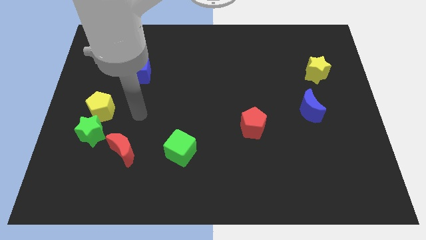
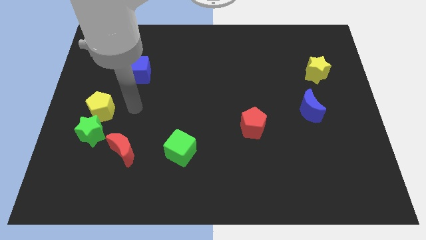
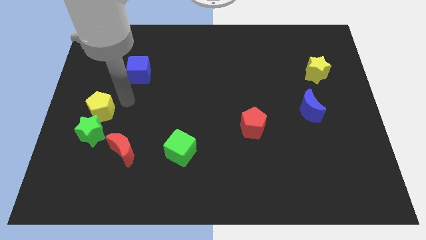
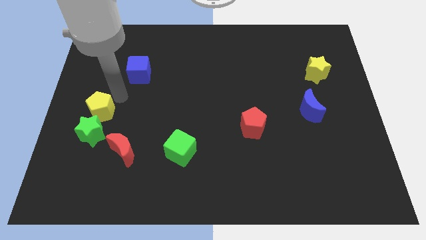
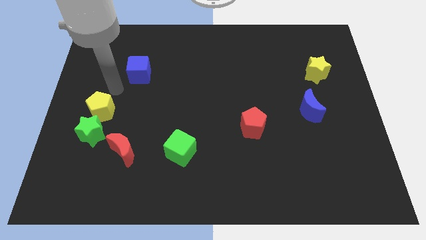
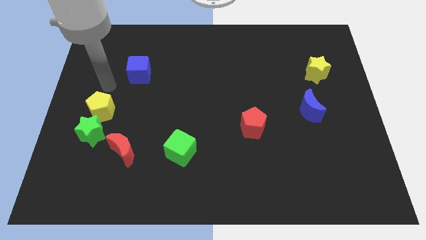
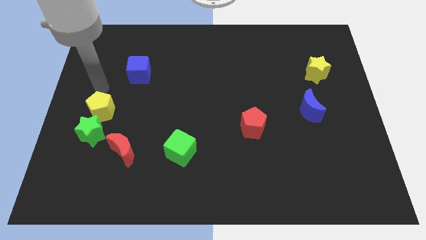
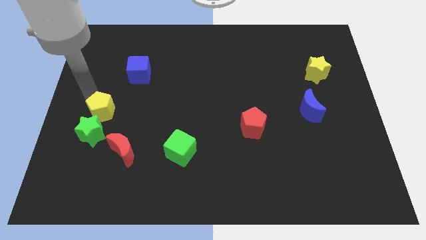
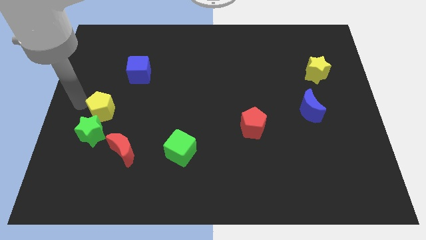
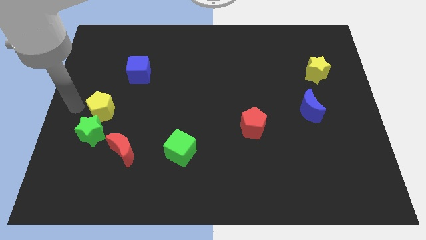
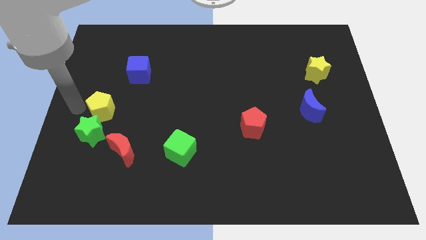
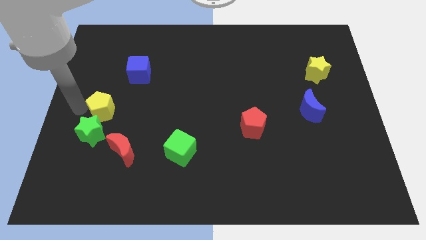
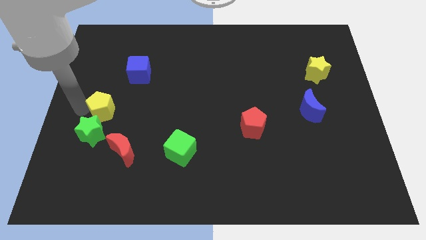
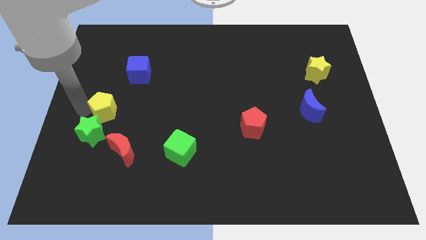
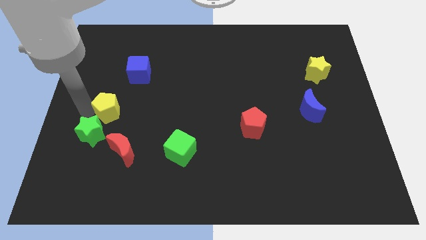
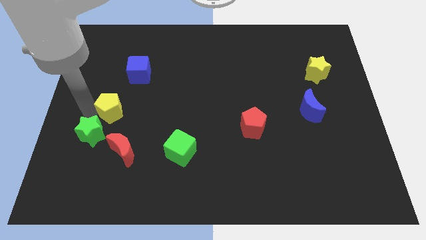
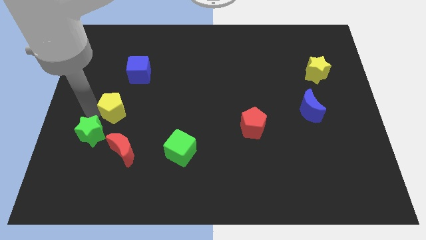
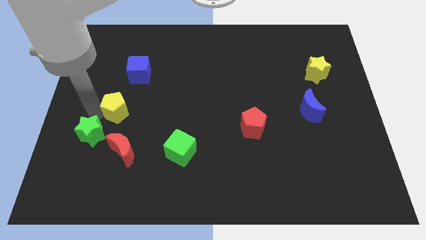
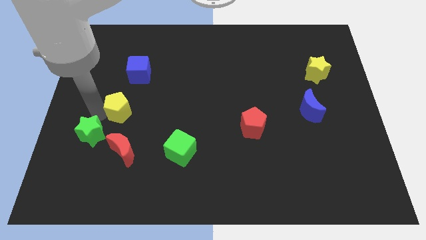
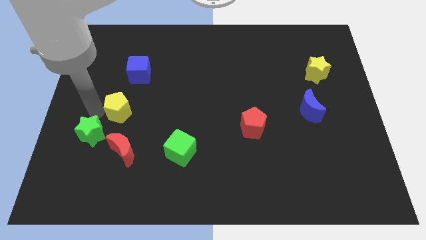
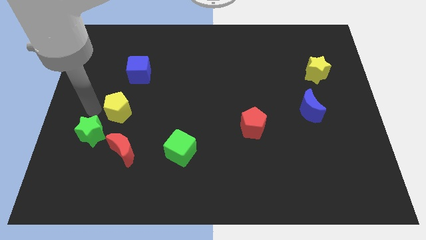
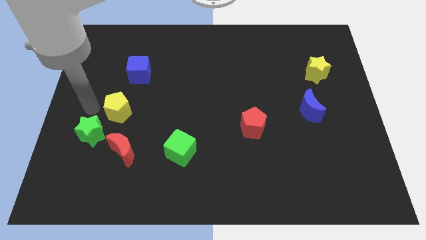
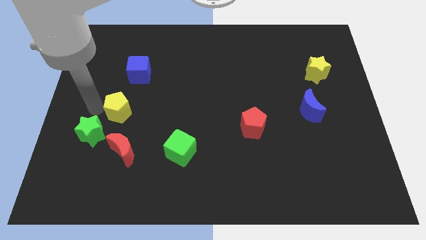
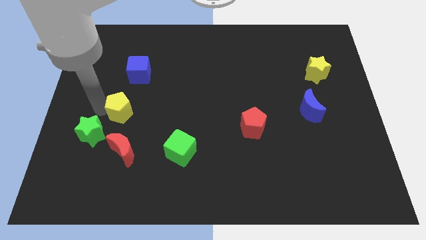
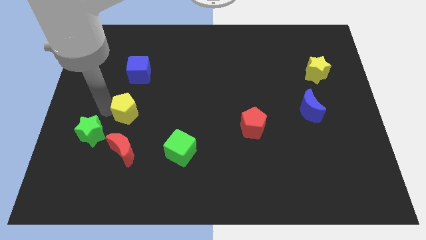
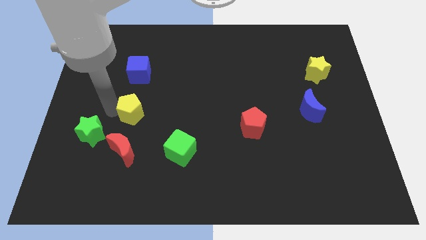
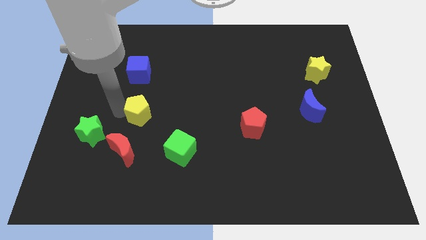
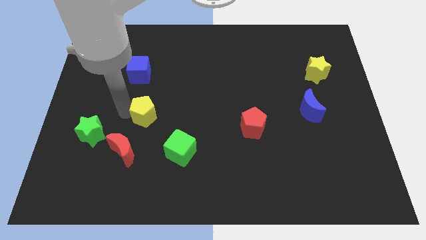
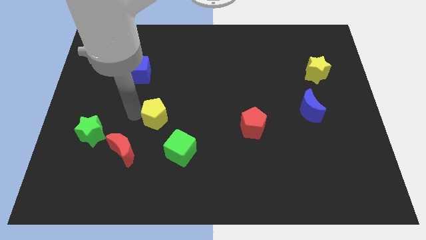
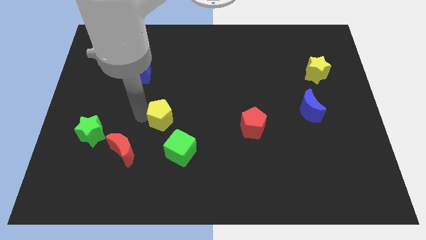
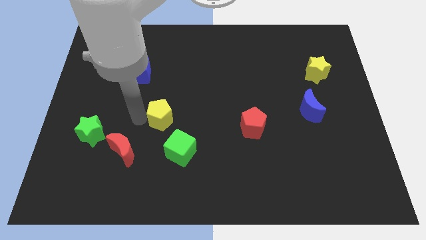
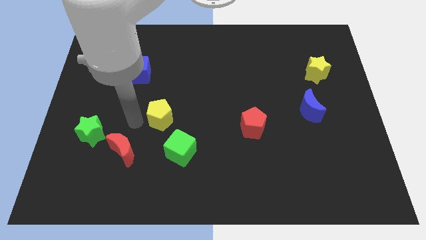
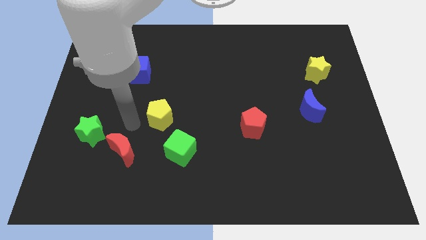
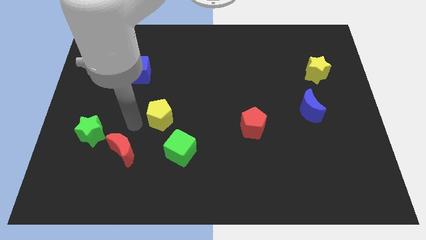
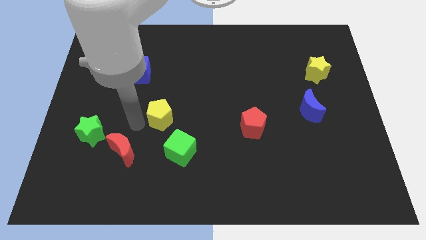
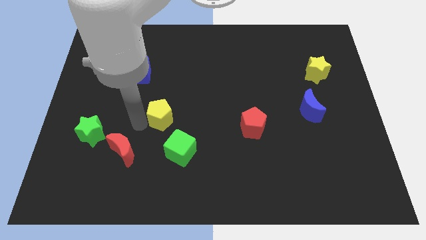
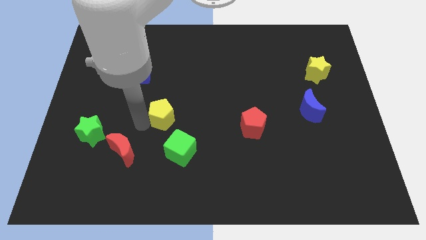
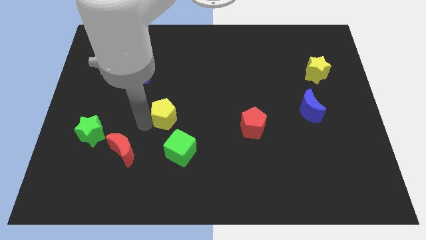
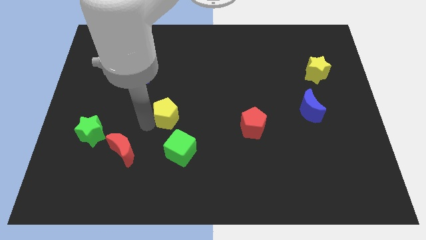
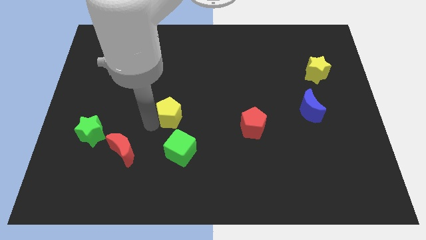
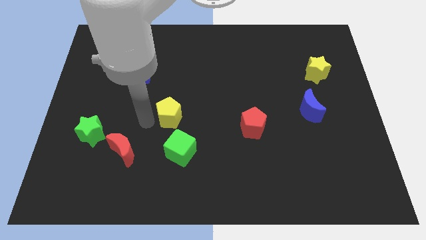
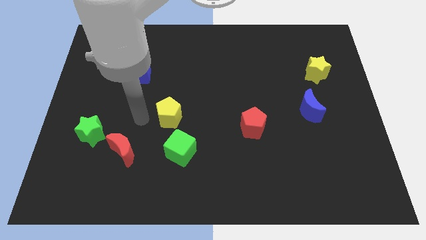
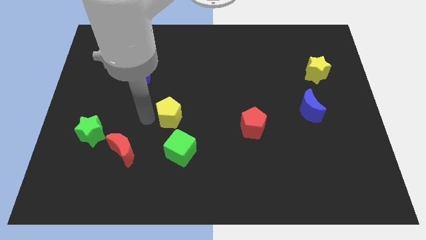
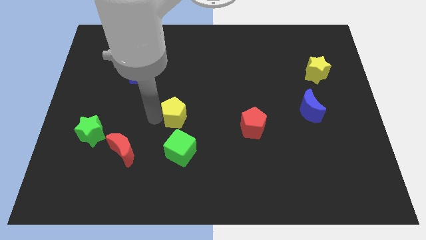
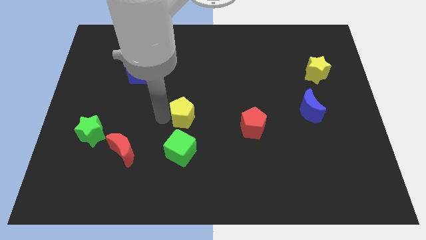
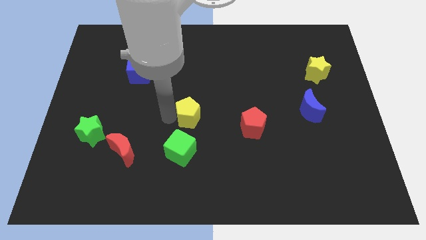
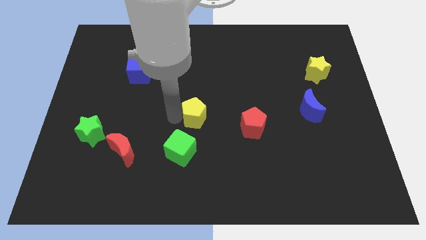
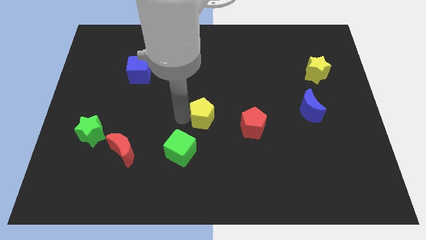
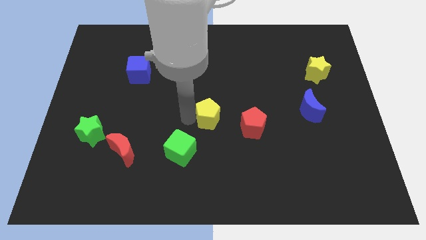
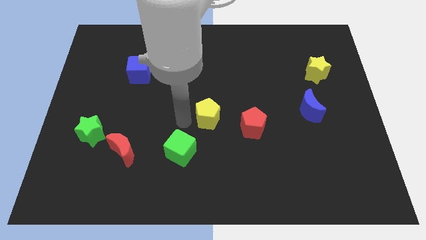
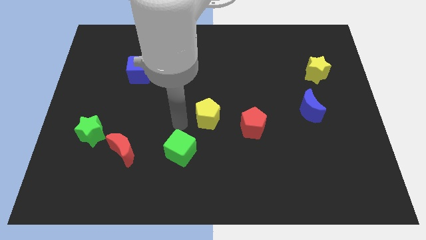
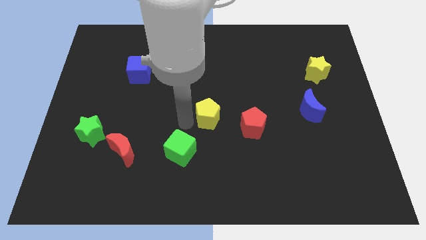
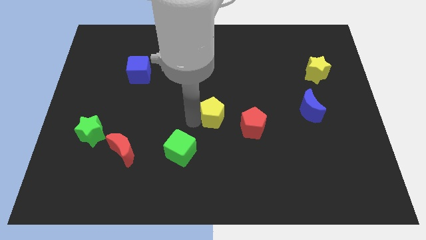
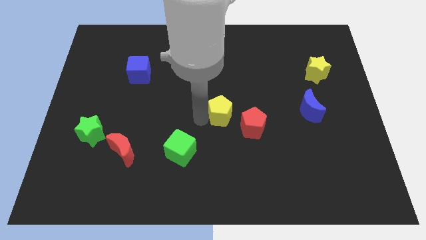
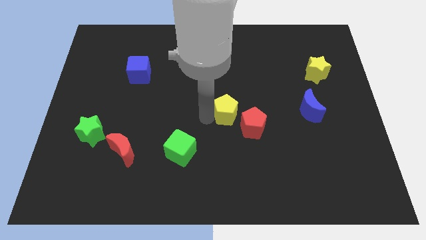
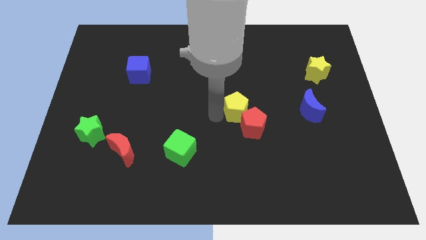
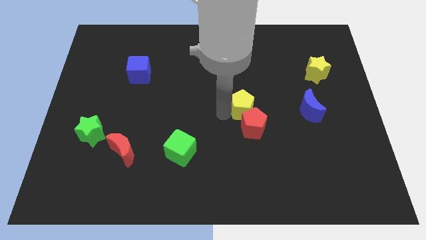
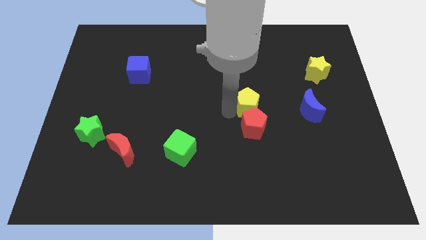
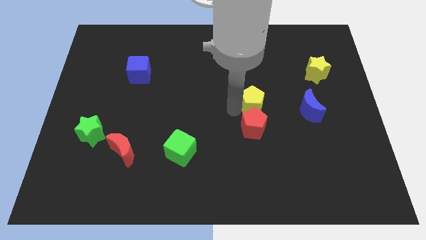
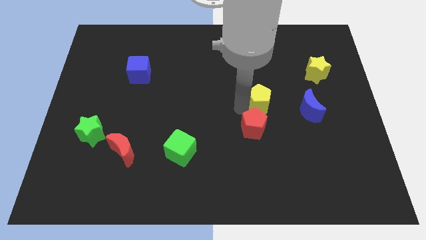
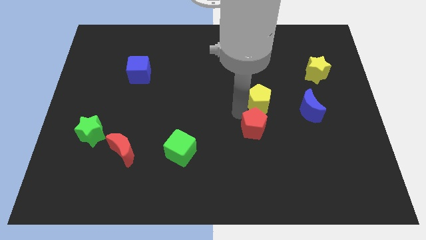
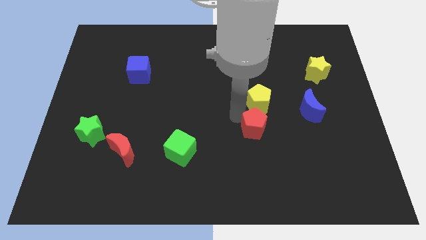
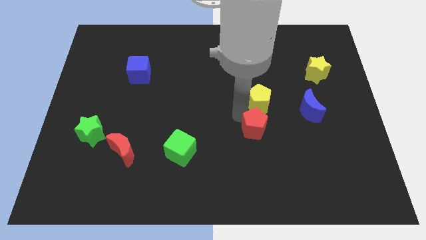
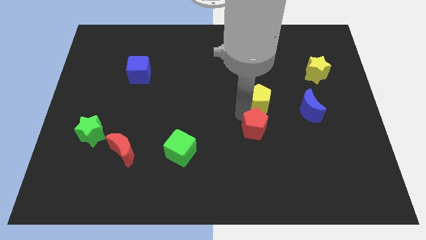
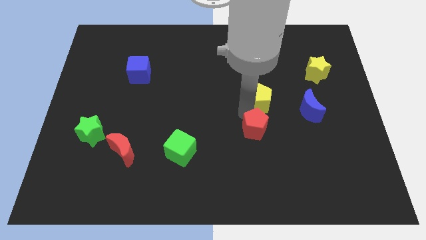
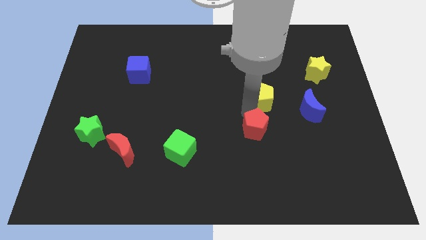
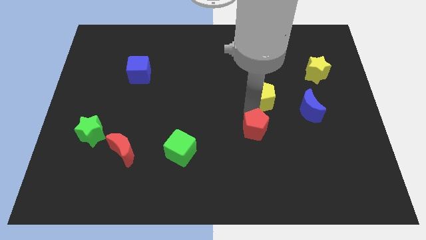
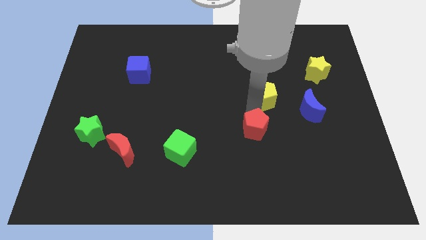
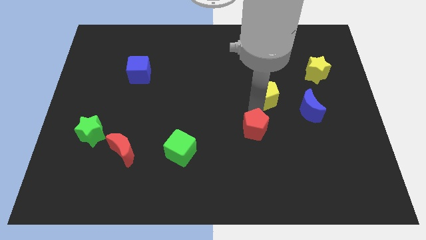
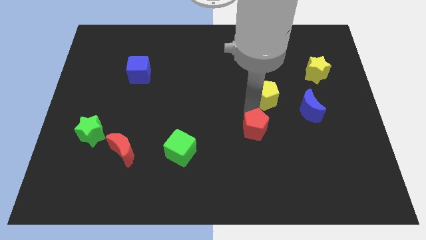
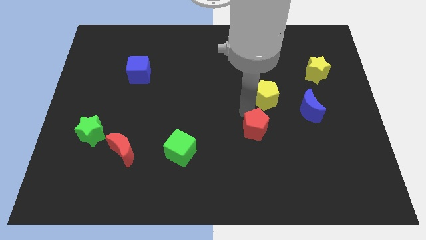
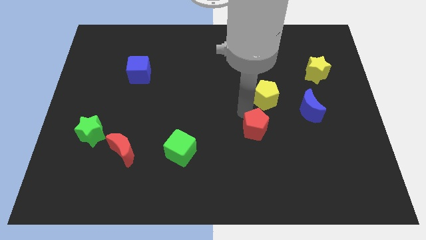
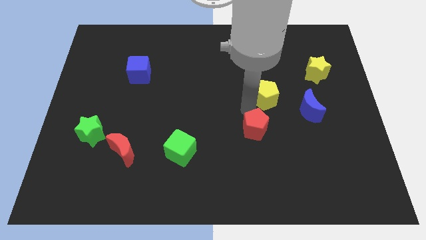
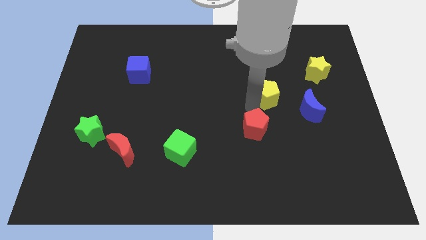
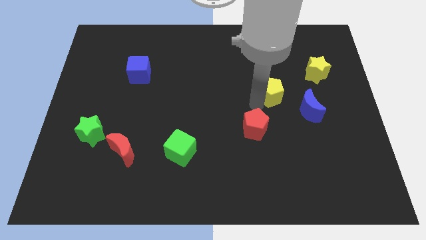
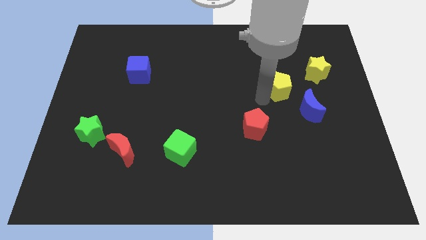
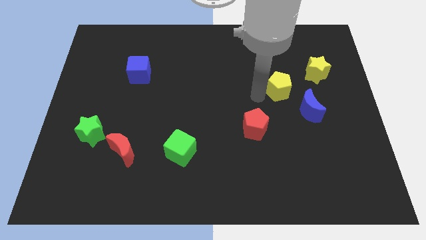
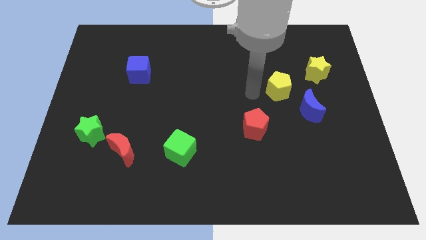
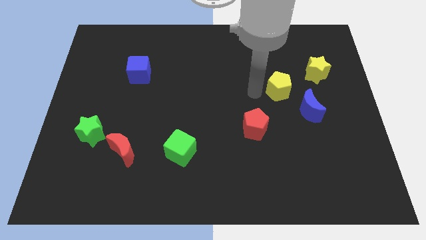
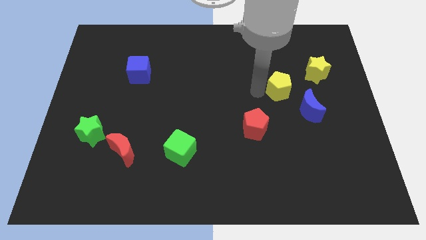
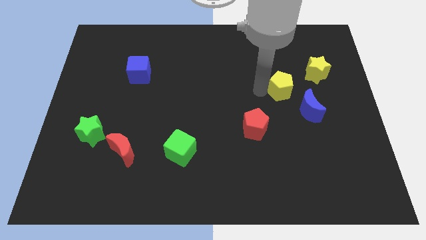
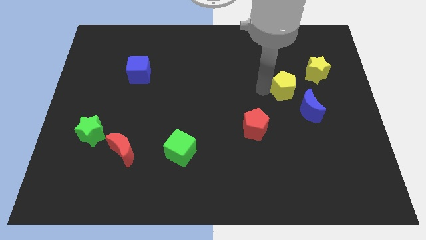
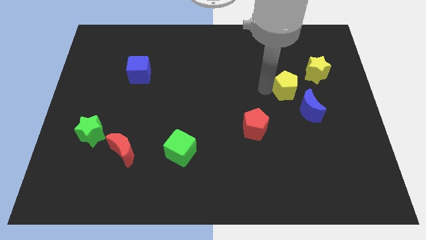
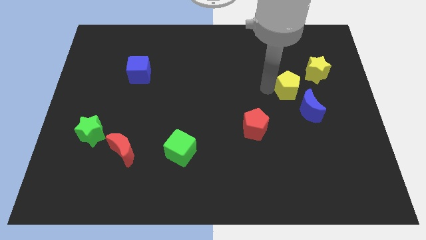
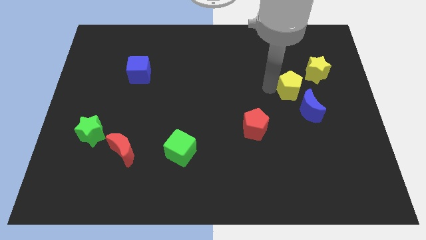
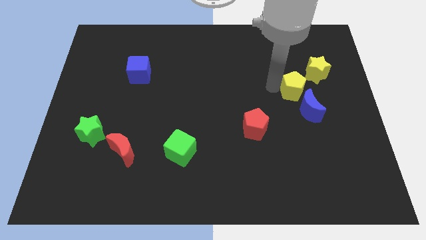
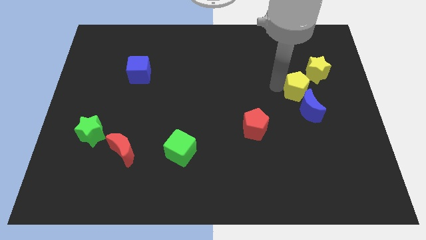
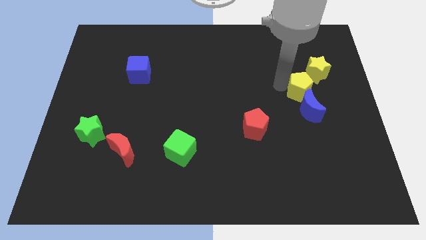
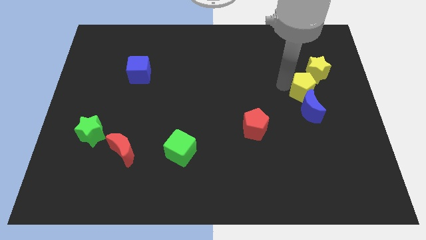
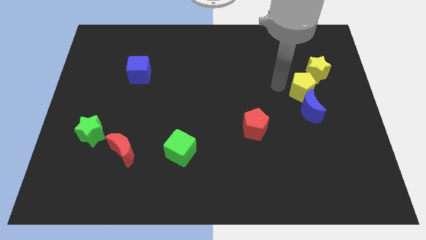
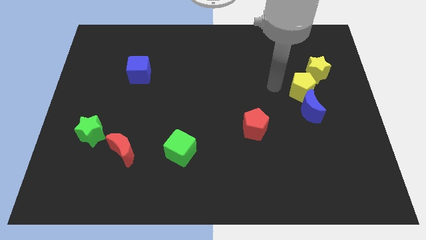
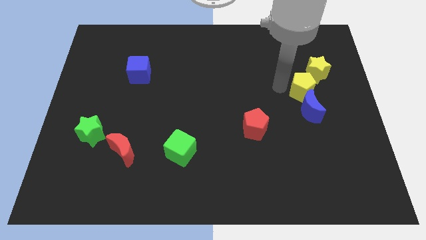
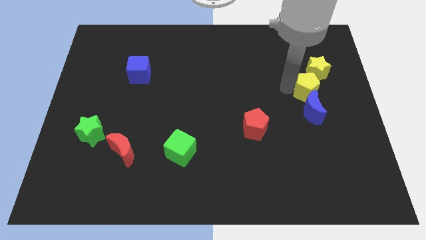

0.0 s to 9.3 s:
move the yellow pentagon diagonally up and to the right of the blue moon
